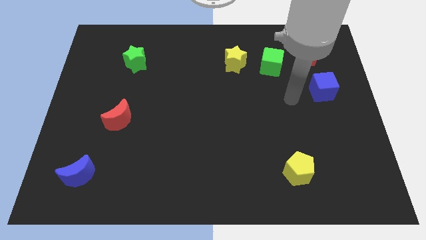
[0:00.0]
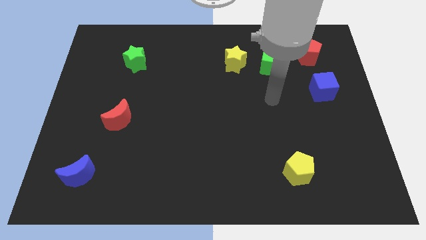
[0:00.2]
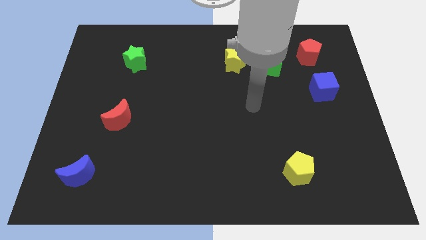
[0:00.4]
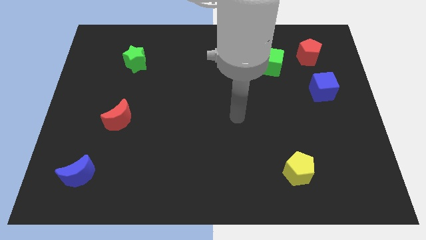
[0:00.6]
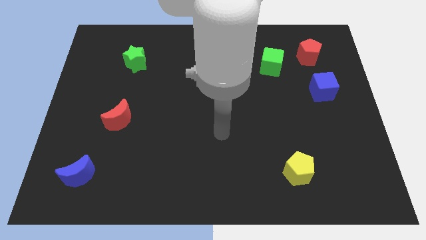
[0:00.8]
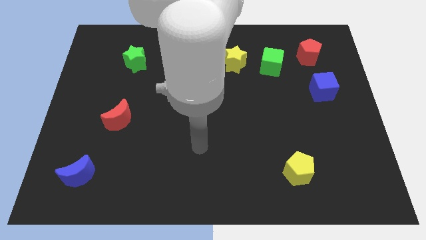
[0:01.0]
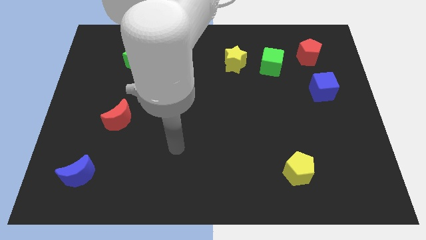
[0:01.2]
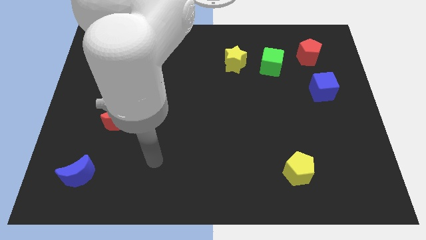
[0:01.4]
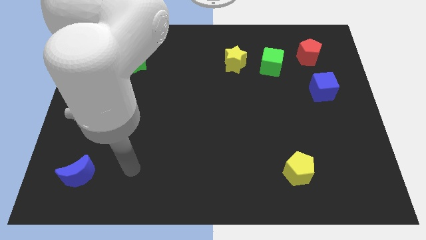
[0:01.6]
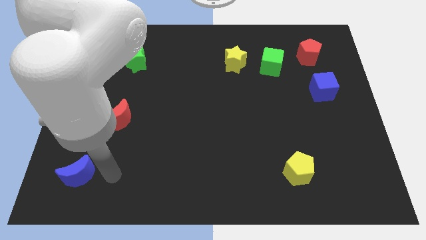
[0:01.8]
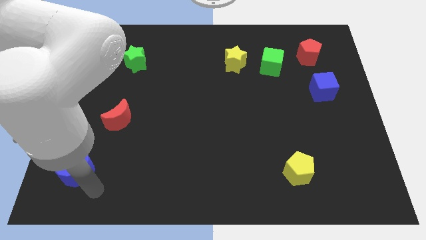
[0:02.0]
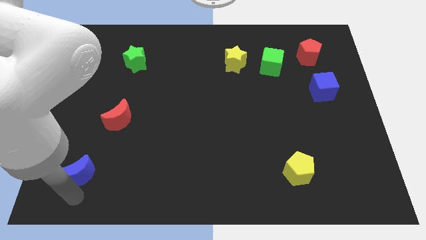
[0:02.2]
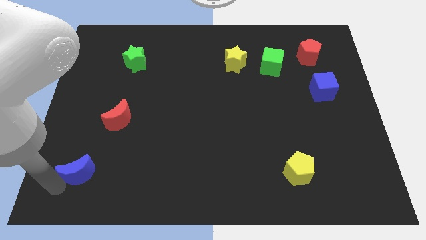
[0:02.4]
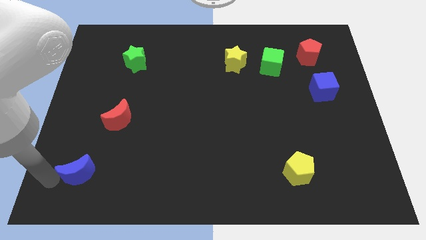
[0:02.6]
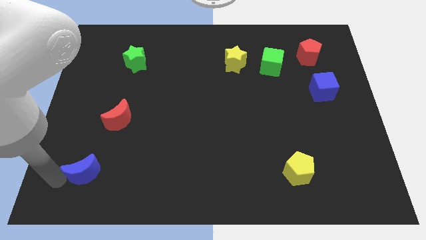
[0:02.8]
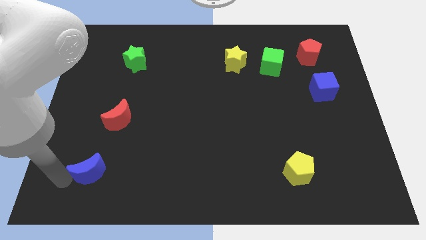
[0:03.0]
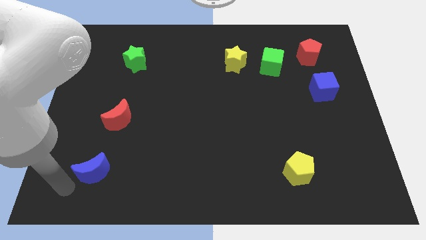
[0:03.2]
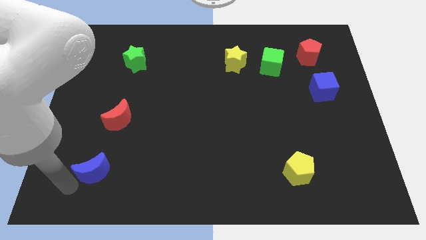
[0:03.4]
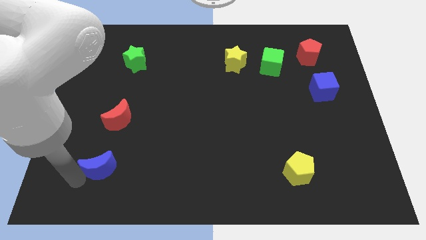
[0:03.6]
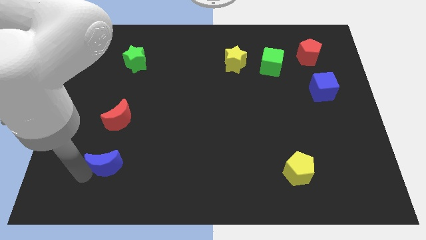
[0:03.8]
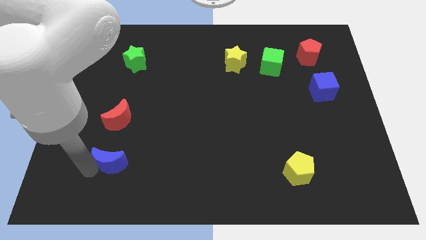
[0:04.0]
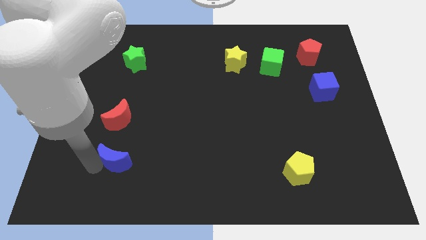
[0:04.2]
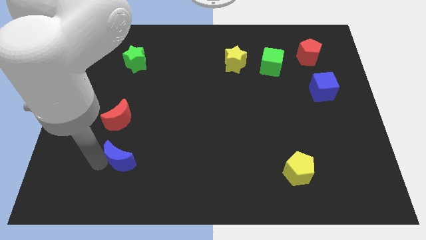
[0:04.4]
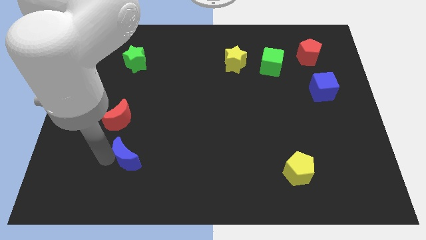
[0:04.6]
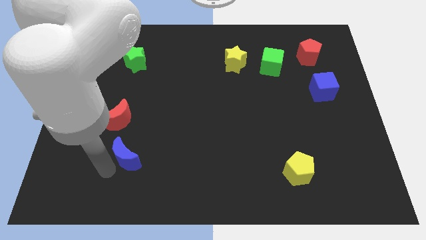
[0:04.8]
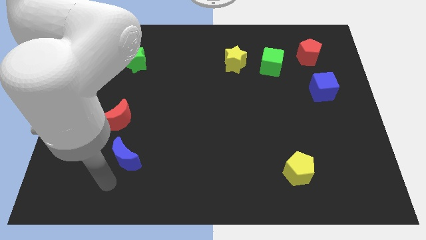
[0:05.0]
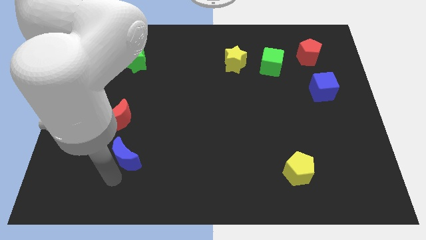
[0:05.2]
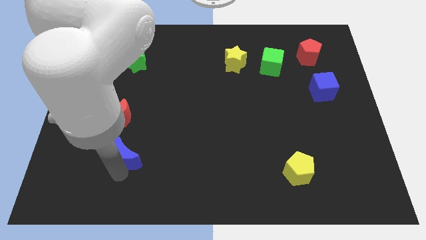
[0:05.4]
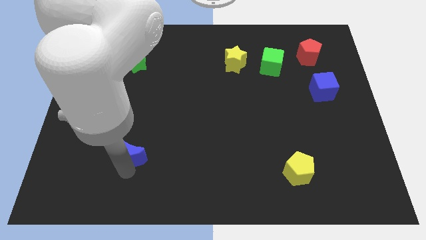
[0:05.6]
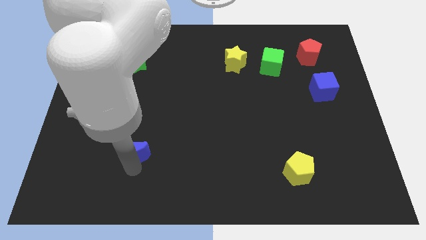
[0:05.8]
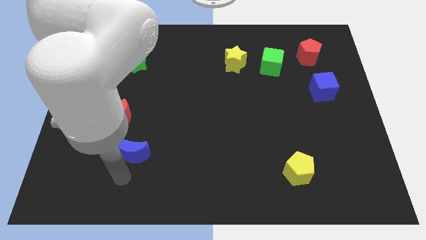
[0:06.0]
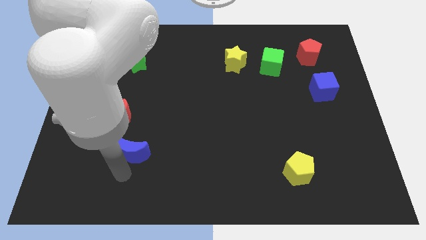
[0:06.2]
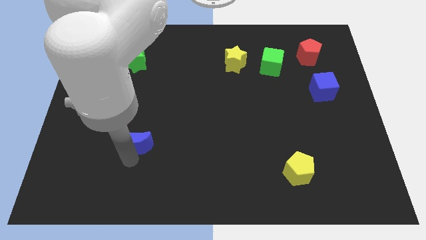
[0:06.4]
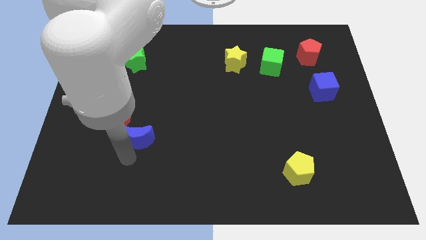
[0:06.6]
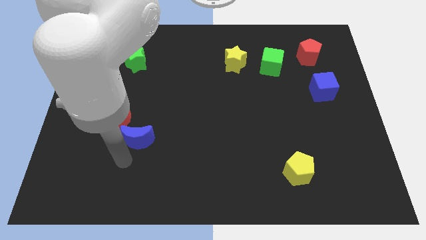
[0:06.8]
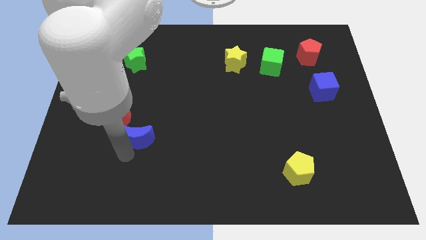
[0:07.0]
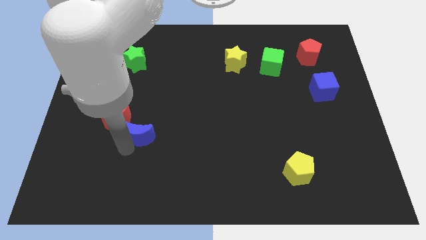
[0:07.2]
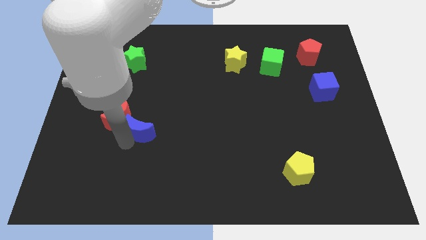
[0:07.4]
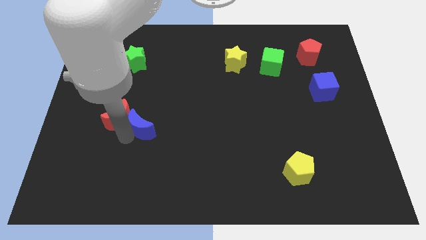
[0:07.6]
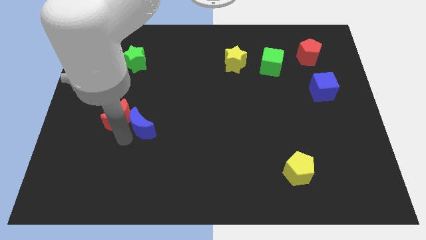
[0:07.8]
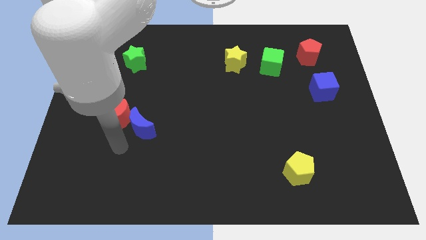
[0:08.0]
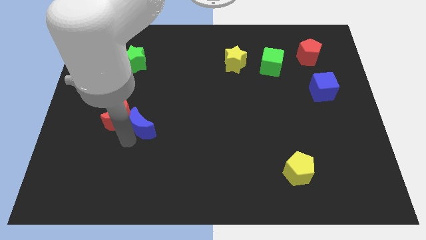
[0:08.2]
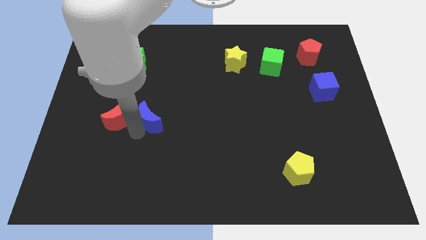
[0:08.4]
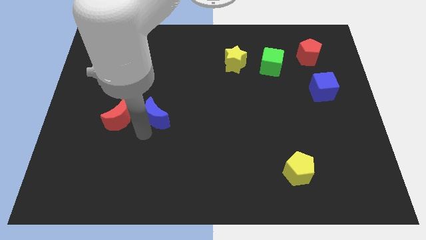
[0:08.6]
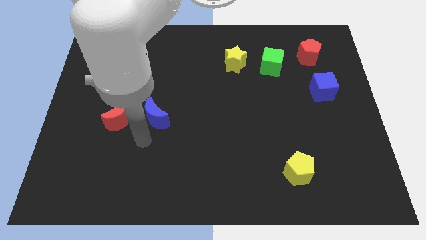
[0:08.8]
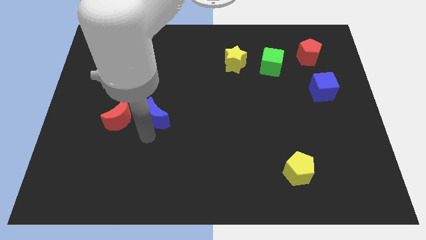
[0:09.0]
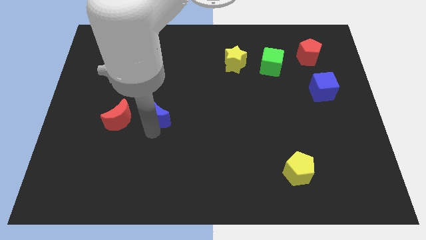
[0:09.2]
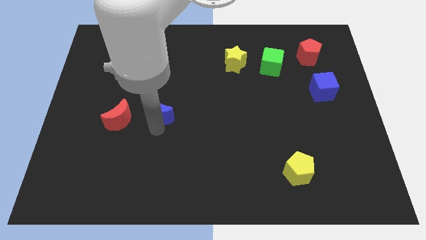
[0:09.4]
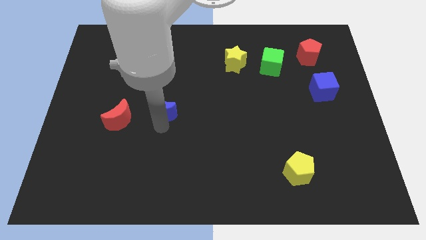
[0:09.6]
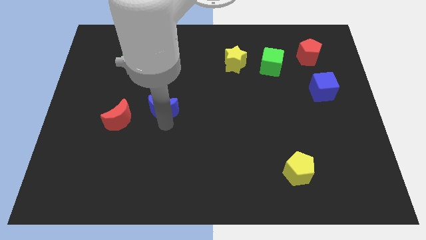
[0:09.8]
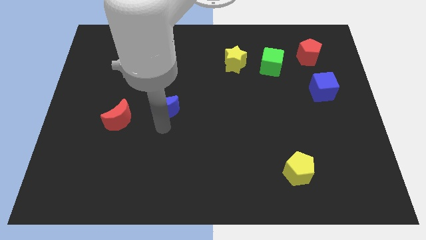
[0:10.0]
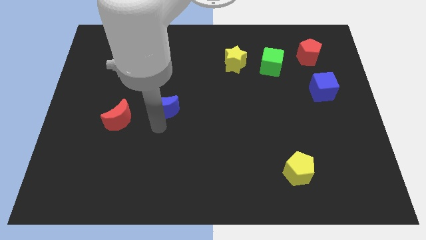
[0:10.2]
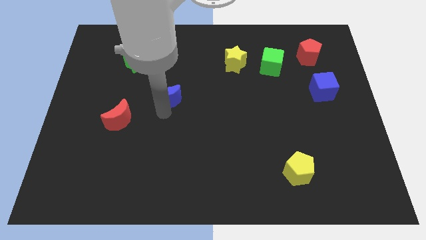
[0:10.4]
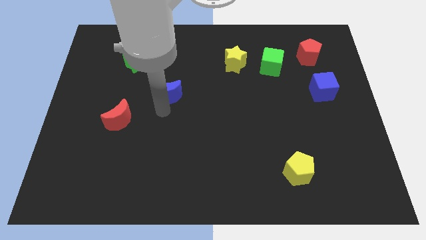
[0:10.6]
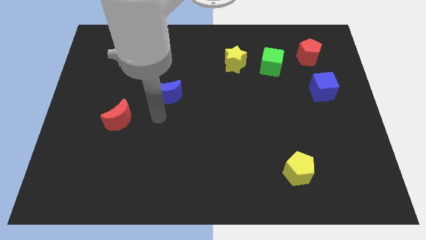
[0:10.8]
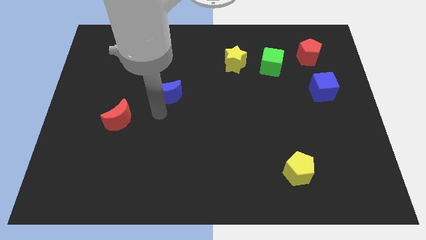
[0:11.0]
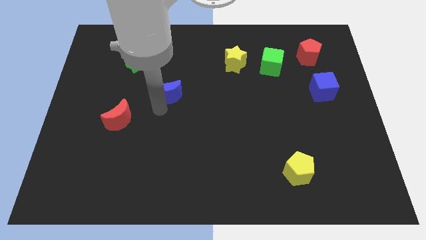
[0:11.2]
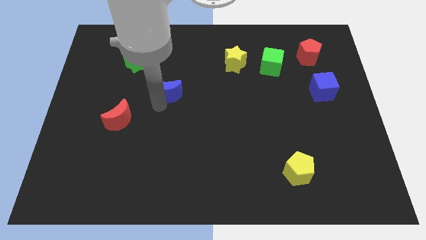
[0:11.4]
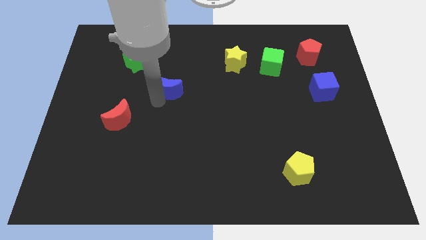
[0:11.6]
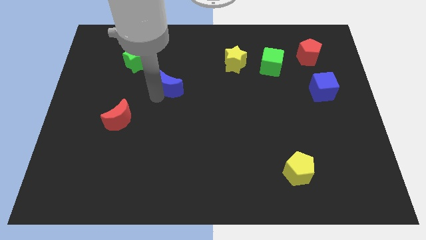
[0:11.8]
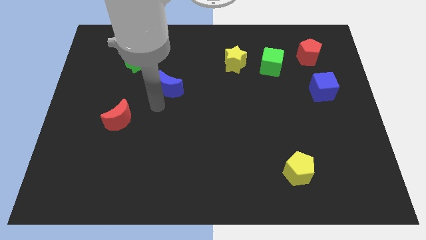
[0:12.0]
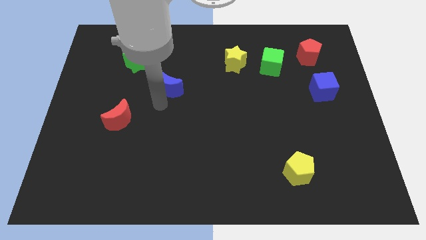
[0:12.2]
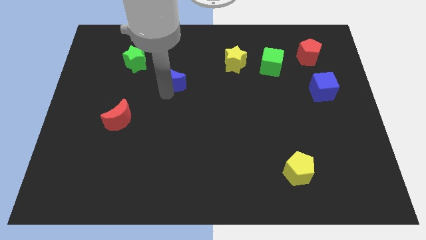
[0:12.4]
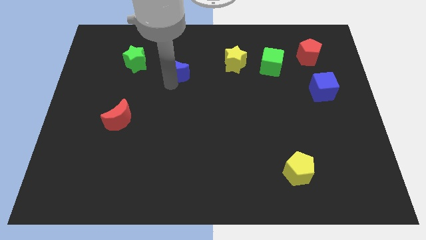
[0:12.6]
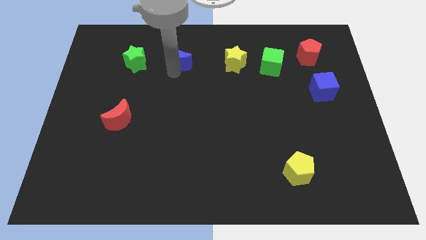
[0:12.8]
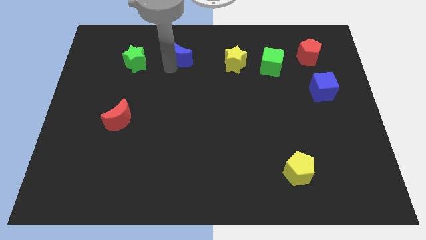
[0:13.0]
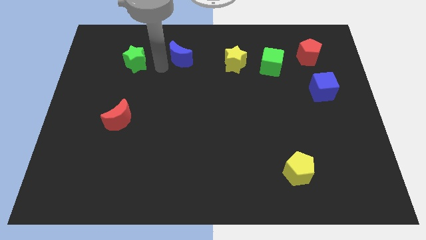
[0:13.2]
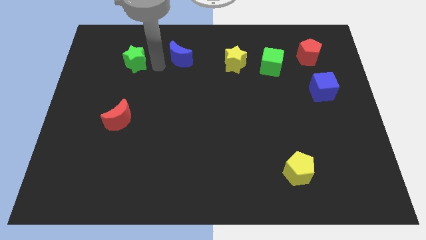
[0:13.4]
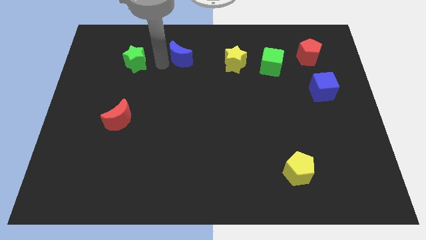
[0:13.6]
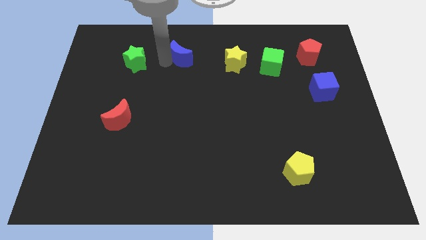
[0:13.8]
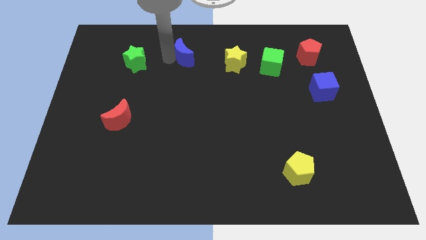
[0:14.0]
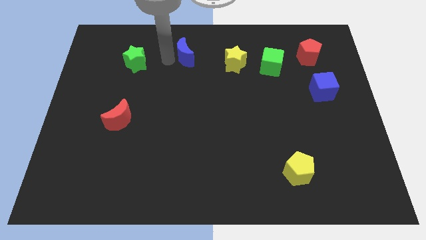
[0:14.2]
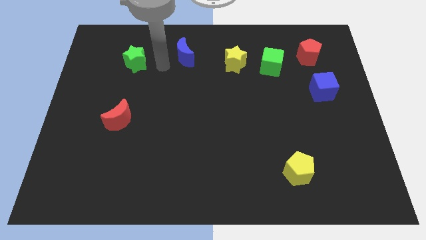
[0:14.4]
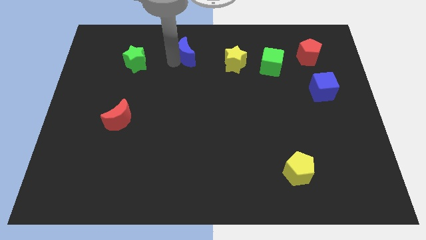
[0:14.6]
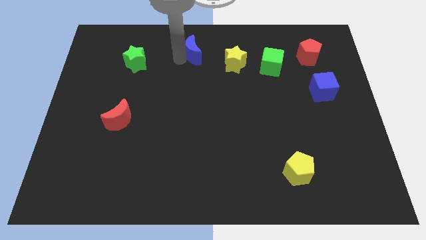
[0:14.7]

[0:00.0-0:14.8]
put the blue moon to the top
